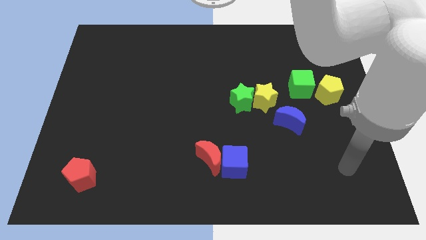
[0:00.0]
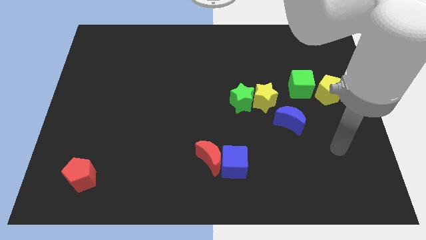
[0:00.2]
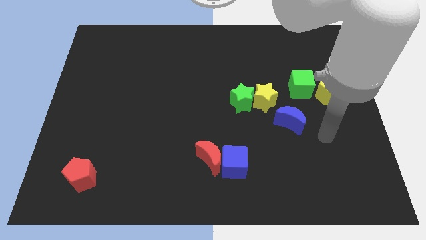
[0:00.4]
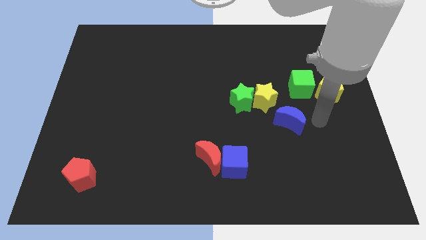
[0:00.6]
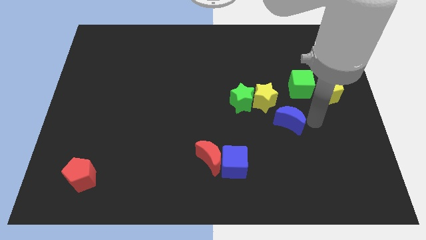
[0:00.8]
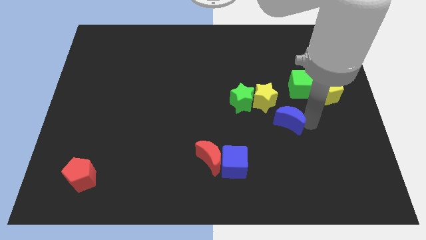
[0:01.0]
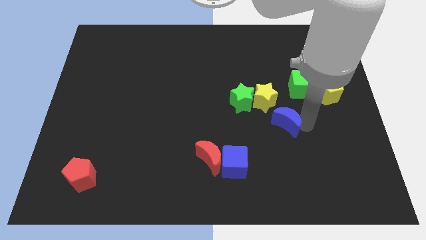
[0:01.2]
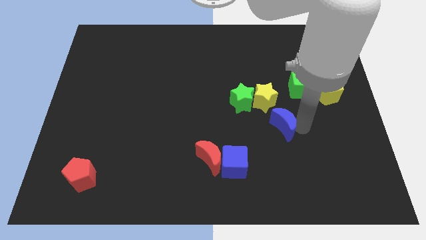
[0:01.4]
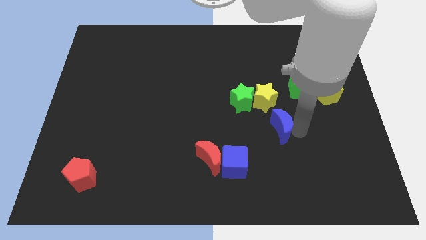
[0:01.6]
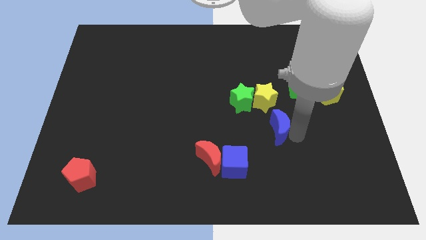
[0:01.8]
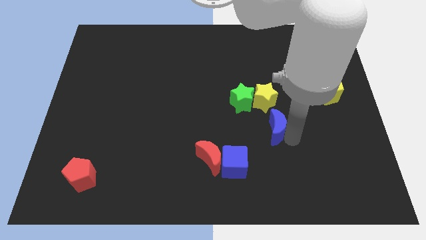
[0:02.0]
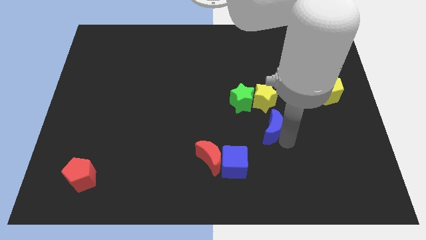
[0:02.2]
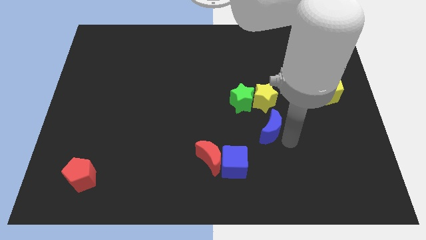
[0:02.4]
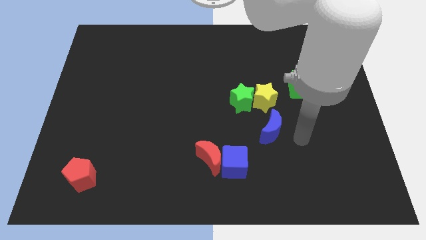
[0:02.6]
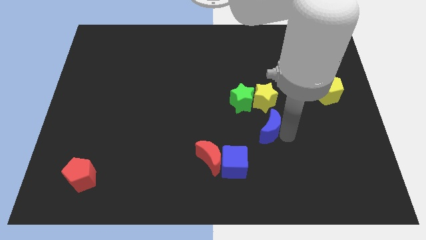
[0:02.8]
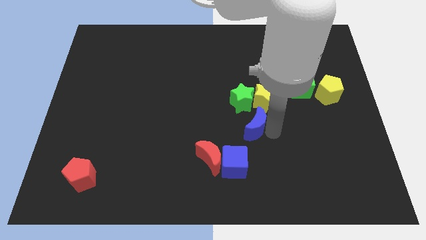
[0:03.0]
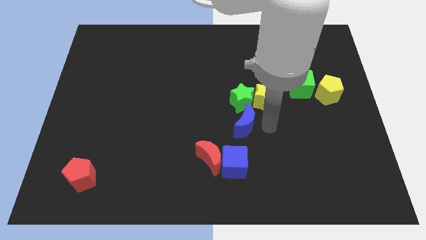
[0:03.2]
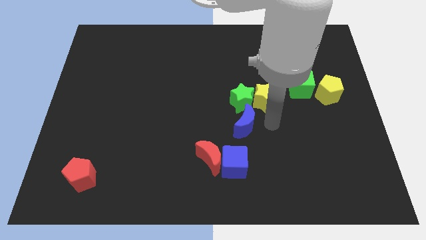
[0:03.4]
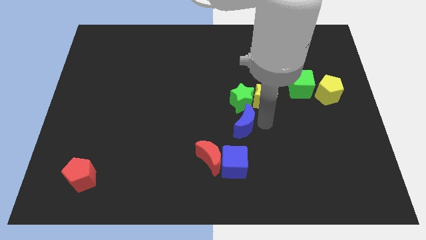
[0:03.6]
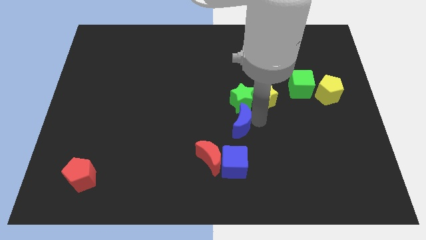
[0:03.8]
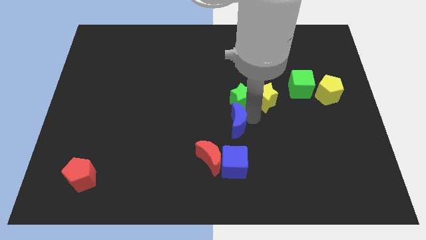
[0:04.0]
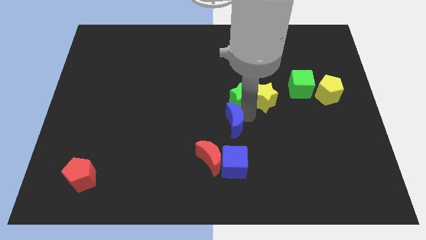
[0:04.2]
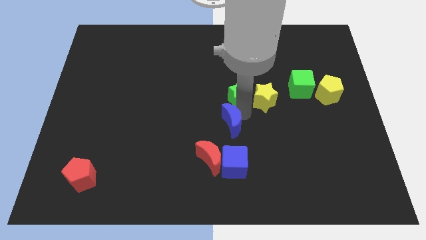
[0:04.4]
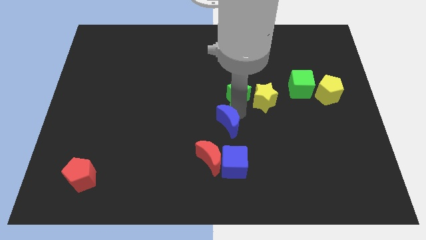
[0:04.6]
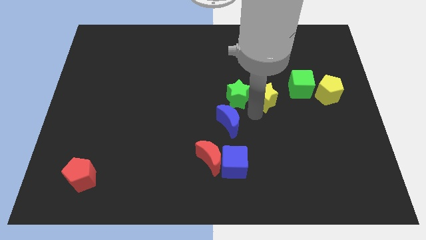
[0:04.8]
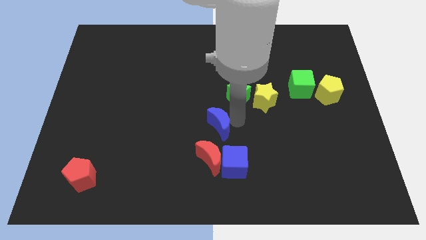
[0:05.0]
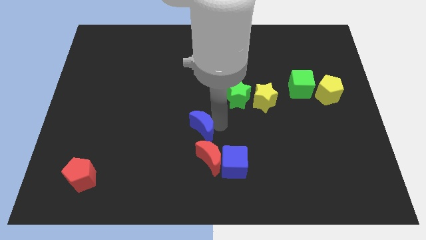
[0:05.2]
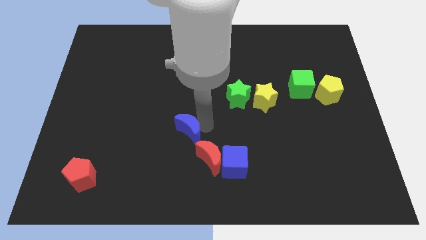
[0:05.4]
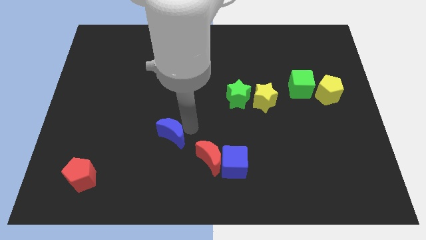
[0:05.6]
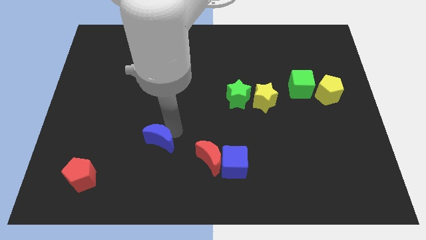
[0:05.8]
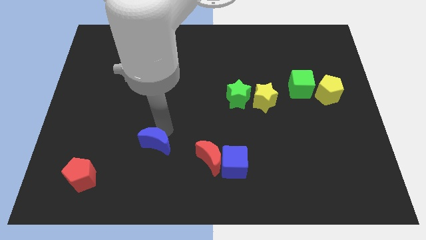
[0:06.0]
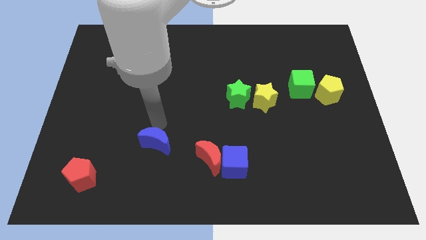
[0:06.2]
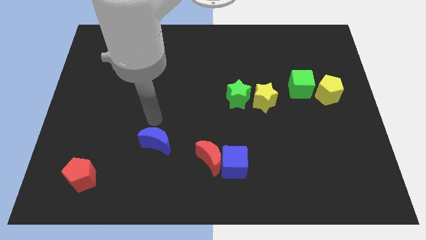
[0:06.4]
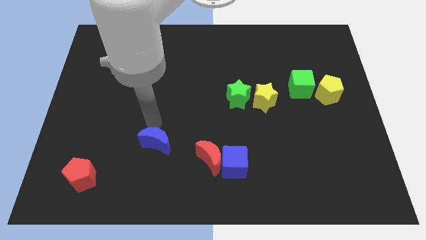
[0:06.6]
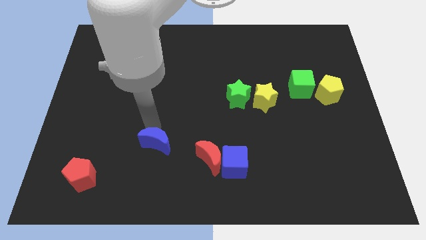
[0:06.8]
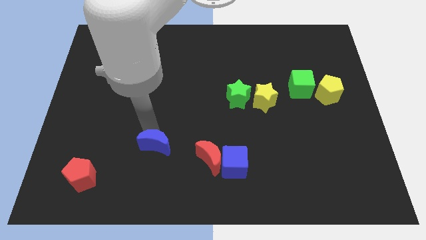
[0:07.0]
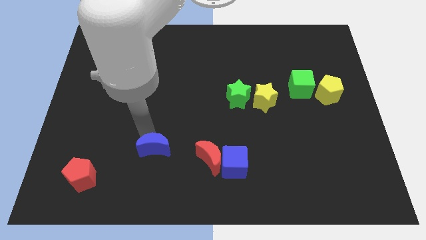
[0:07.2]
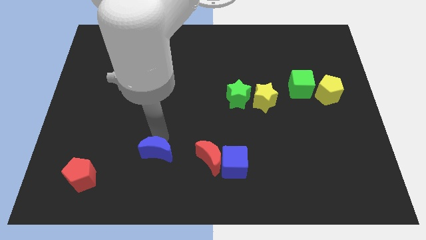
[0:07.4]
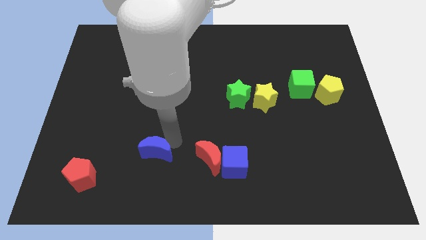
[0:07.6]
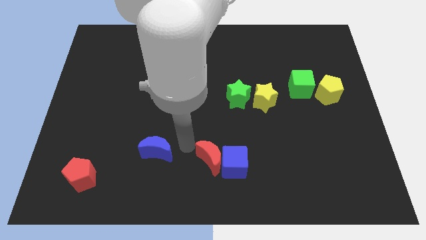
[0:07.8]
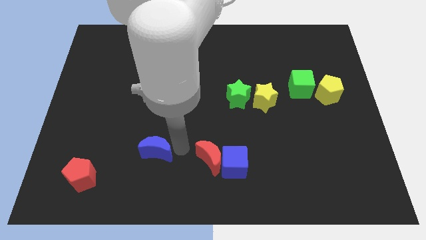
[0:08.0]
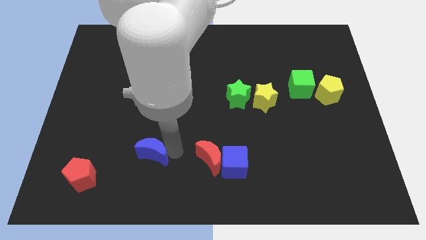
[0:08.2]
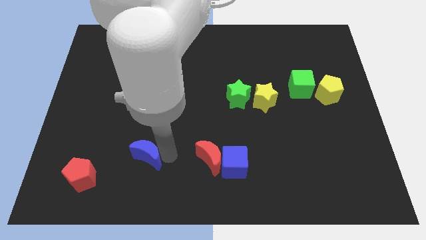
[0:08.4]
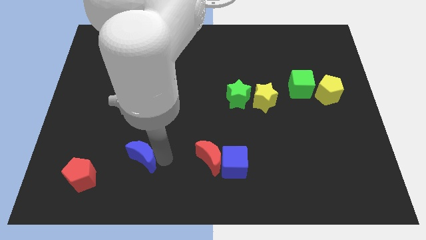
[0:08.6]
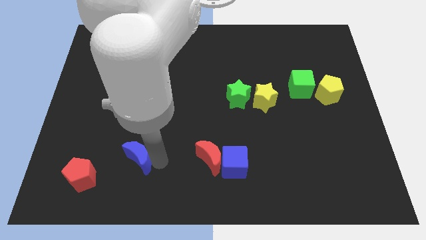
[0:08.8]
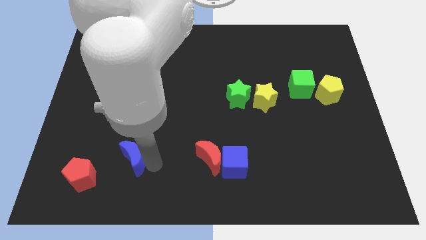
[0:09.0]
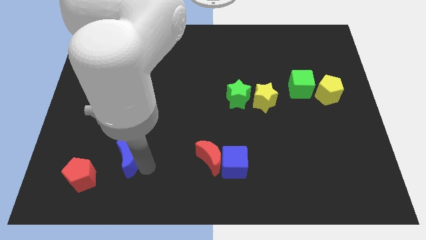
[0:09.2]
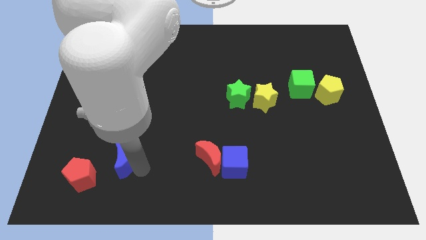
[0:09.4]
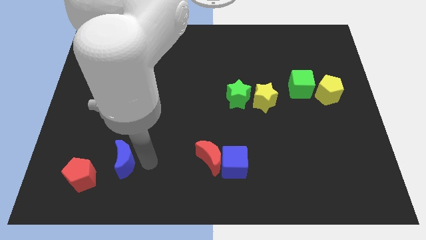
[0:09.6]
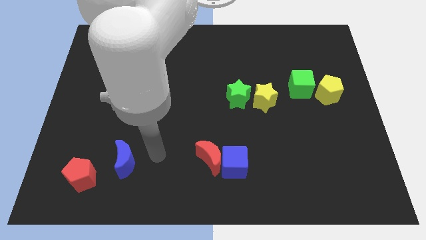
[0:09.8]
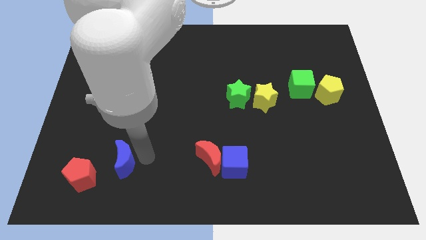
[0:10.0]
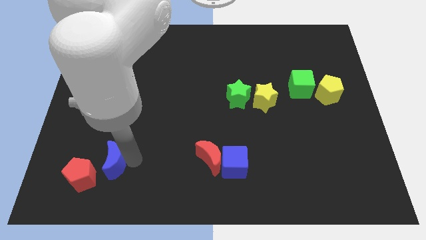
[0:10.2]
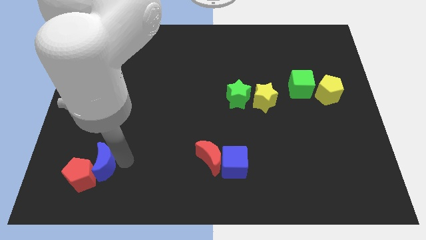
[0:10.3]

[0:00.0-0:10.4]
move the blue moon to the red pentagon

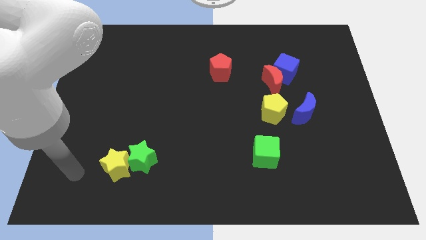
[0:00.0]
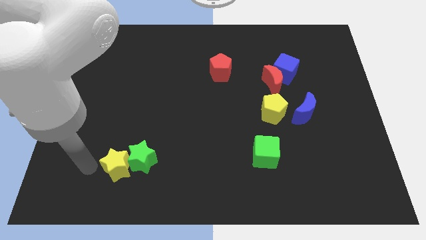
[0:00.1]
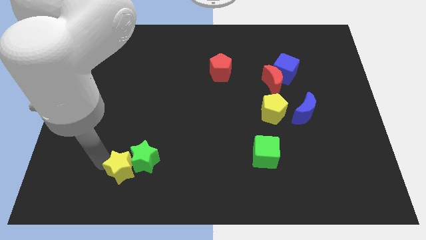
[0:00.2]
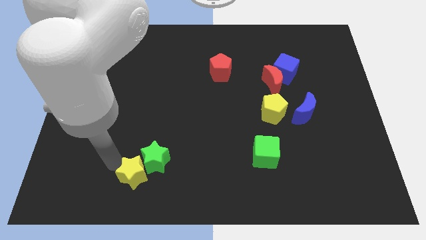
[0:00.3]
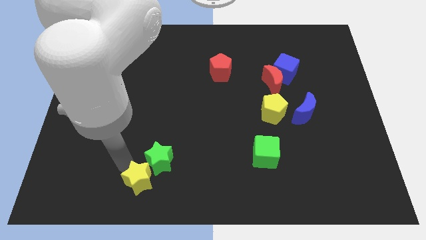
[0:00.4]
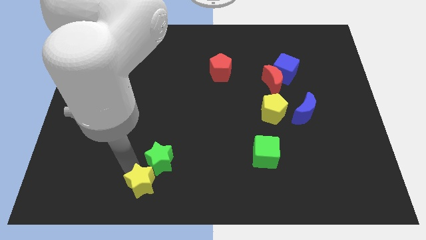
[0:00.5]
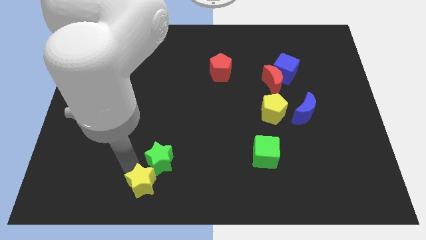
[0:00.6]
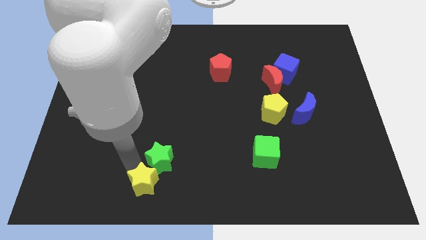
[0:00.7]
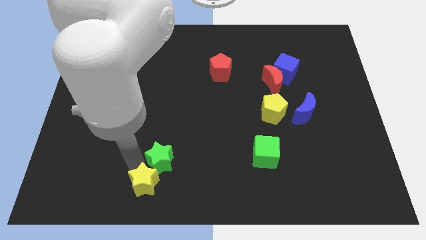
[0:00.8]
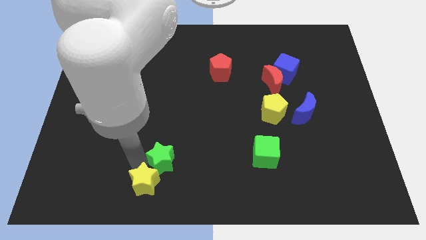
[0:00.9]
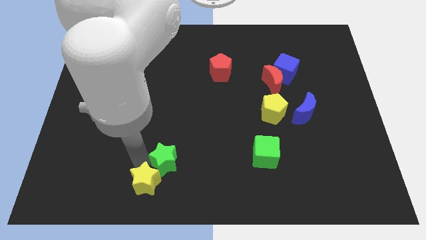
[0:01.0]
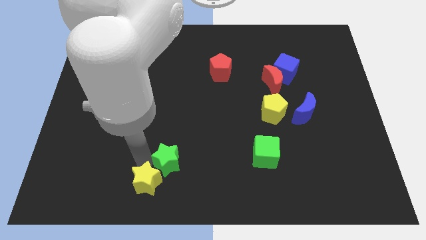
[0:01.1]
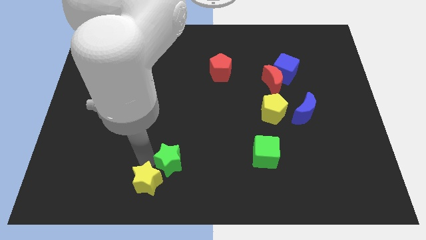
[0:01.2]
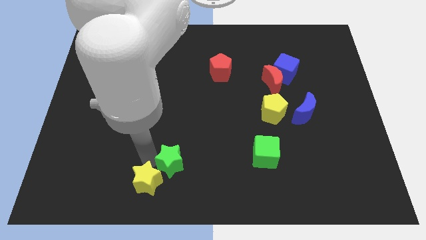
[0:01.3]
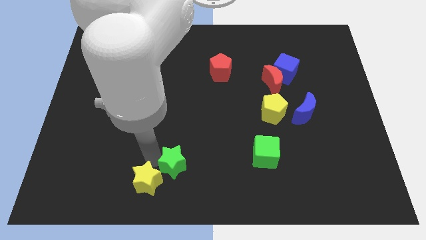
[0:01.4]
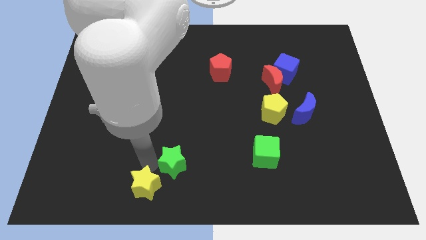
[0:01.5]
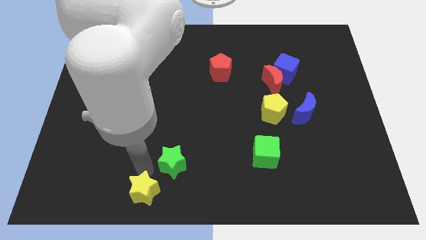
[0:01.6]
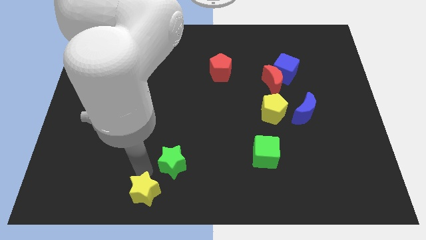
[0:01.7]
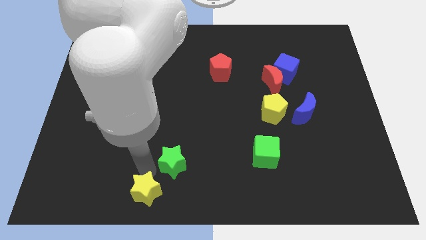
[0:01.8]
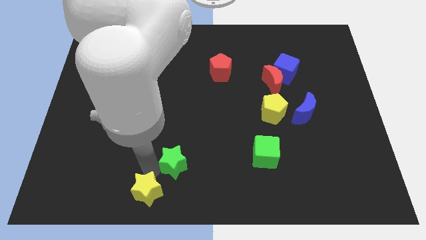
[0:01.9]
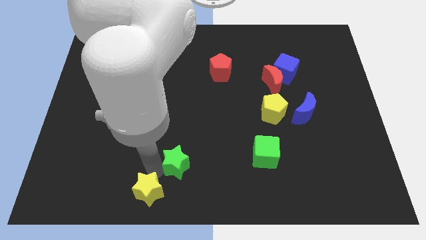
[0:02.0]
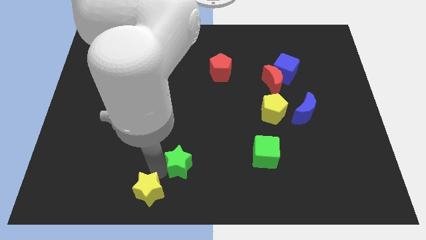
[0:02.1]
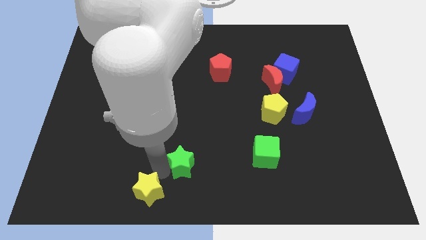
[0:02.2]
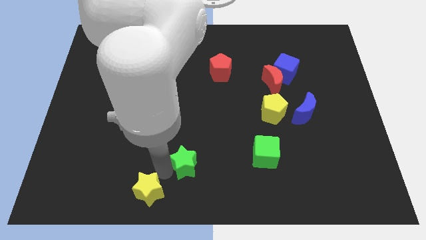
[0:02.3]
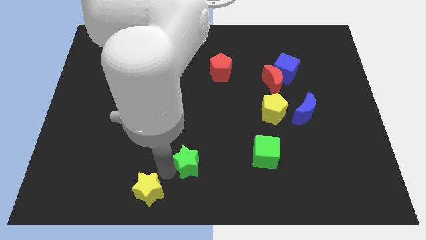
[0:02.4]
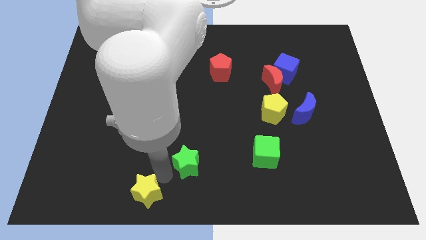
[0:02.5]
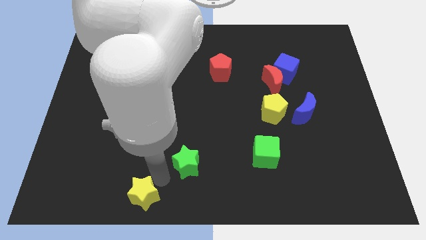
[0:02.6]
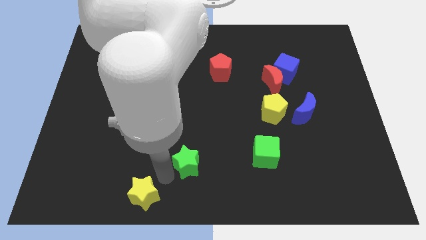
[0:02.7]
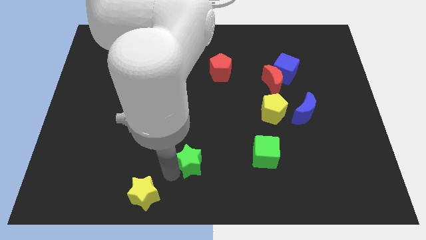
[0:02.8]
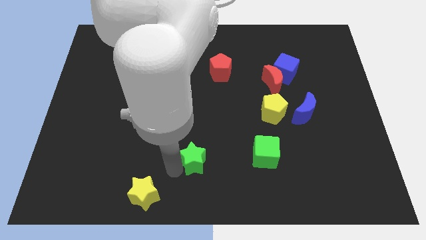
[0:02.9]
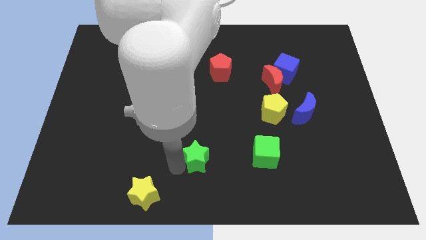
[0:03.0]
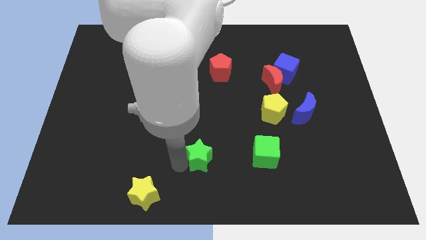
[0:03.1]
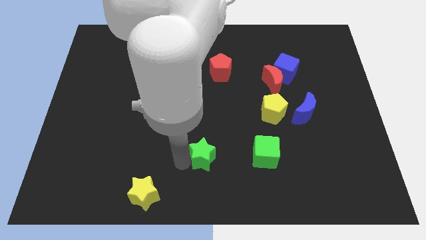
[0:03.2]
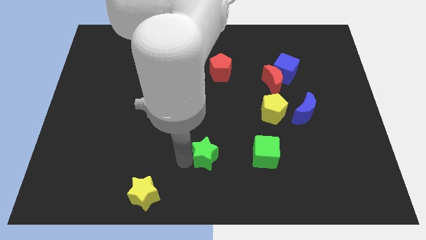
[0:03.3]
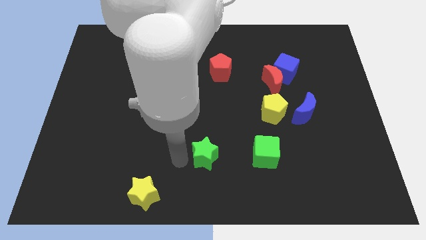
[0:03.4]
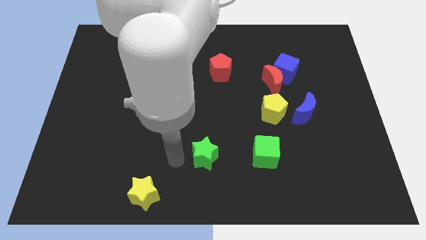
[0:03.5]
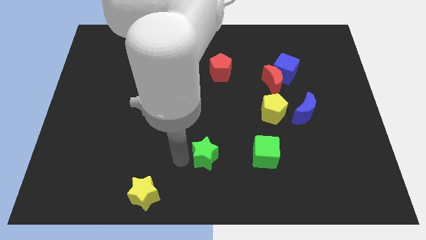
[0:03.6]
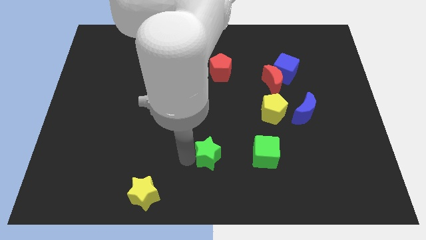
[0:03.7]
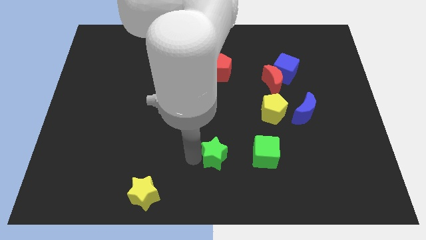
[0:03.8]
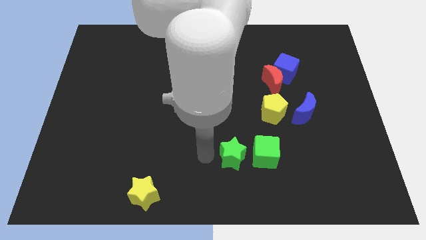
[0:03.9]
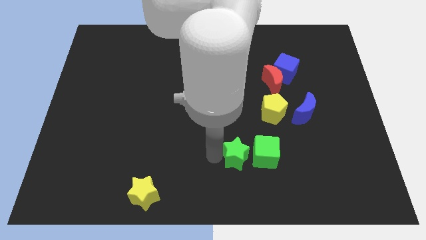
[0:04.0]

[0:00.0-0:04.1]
slide the green star towards the green cube
